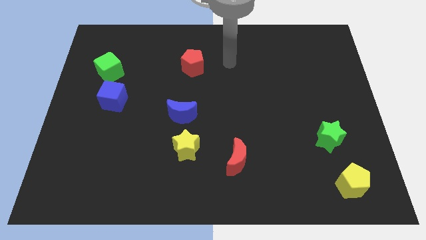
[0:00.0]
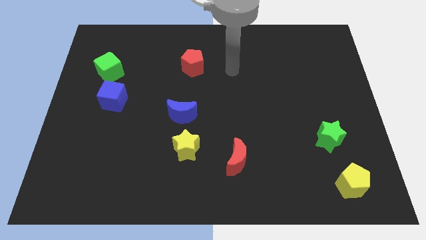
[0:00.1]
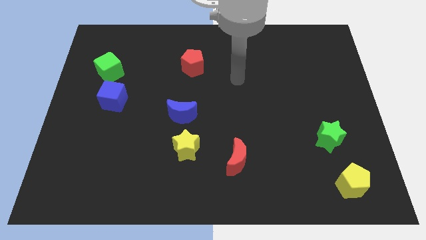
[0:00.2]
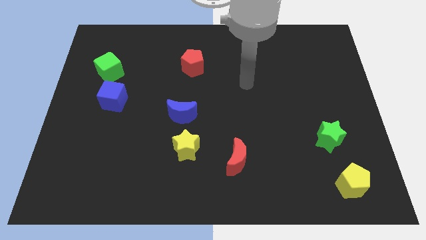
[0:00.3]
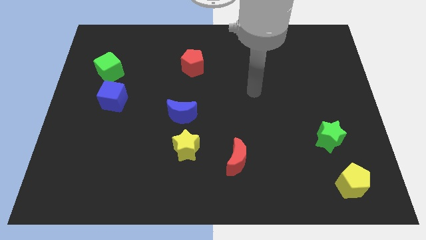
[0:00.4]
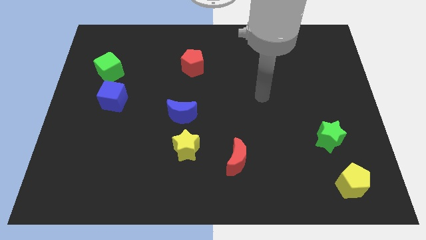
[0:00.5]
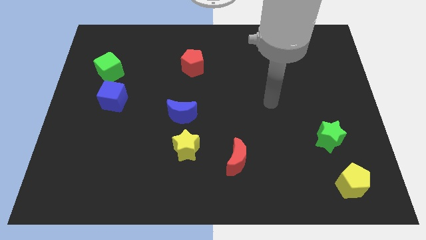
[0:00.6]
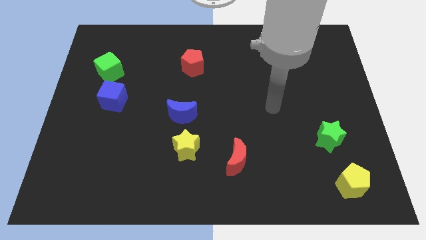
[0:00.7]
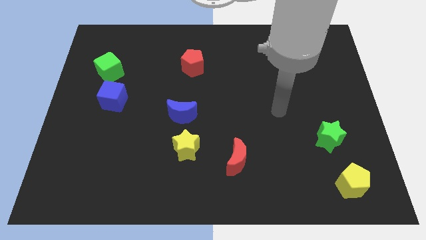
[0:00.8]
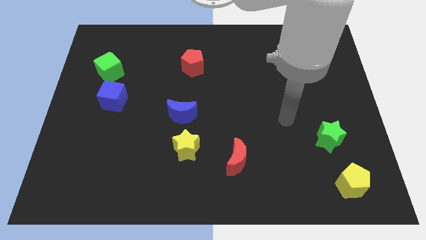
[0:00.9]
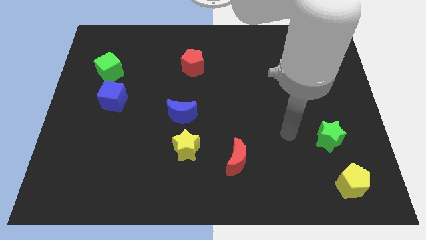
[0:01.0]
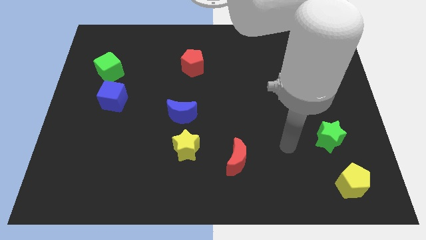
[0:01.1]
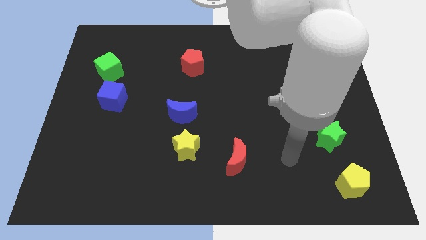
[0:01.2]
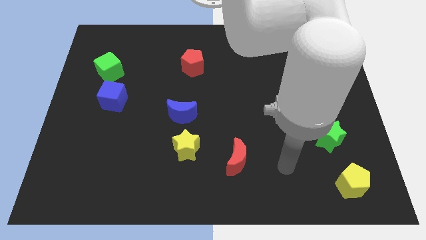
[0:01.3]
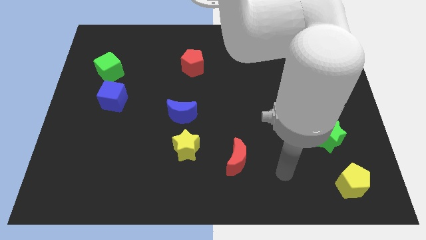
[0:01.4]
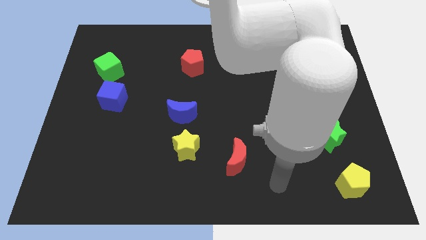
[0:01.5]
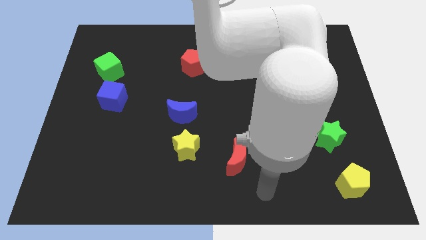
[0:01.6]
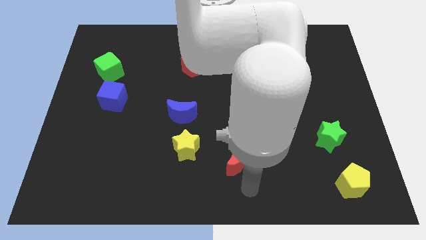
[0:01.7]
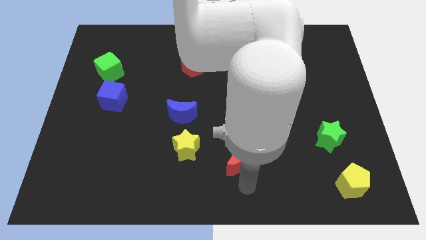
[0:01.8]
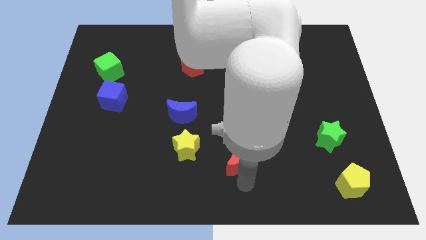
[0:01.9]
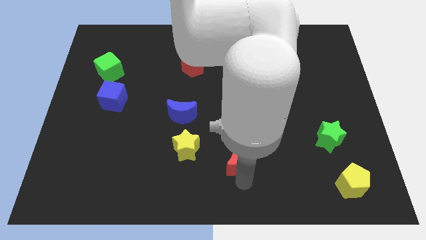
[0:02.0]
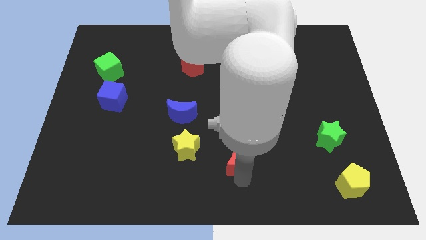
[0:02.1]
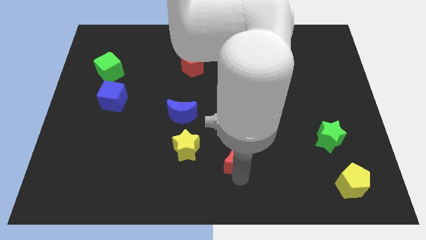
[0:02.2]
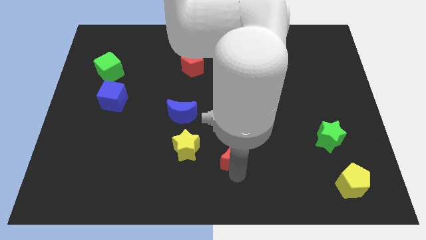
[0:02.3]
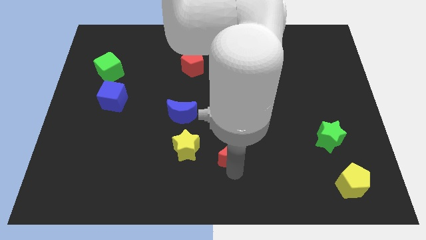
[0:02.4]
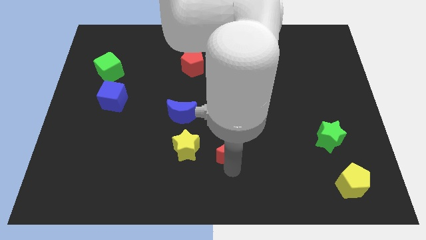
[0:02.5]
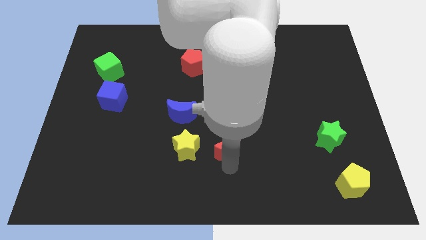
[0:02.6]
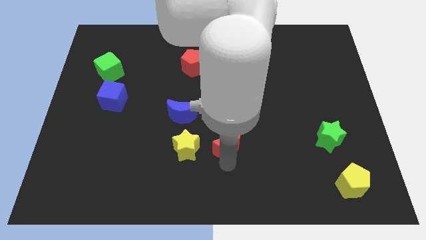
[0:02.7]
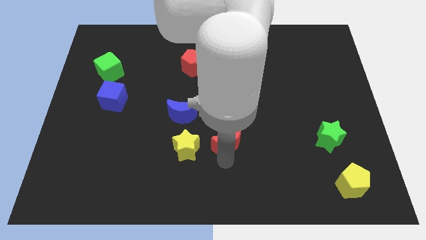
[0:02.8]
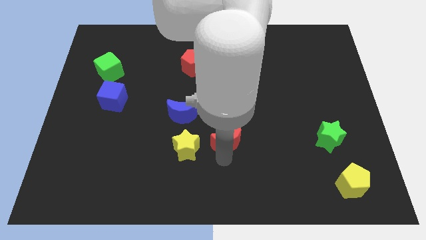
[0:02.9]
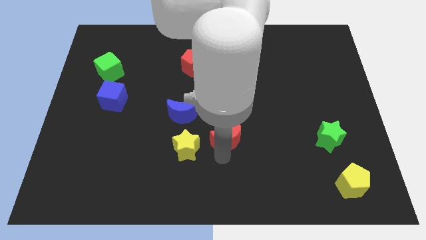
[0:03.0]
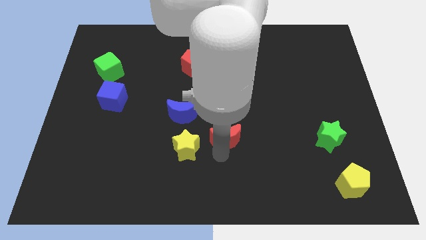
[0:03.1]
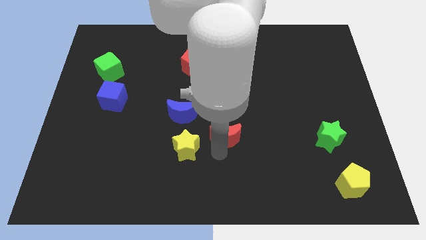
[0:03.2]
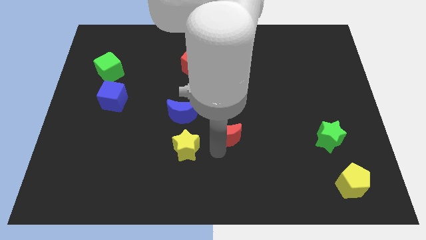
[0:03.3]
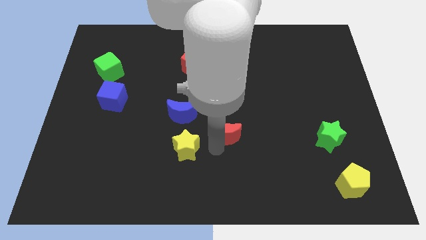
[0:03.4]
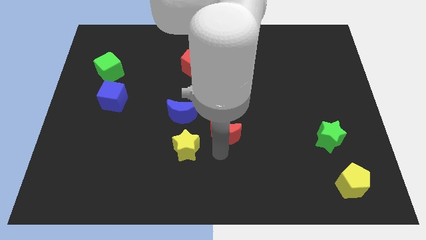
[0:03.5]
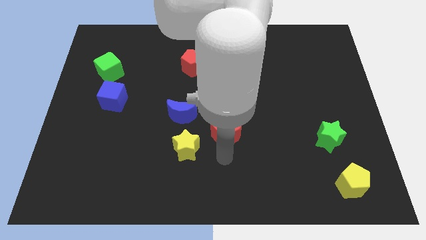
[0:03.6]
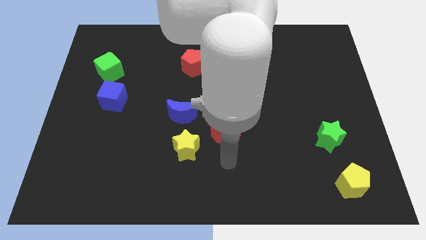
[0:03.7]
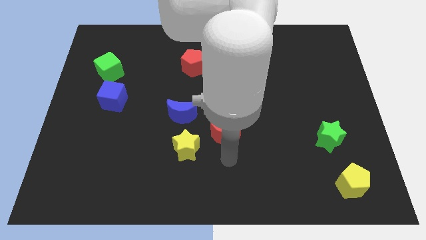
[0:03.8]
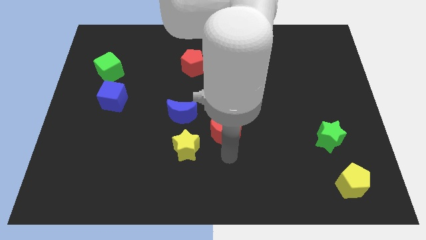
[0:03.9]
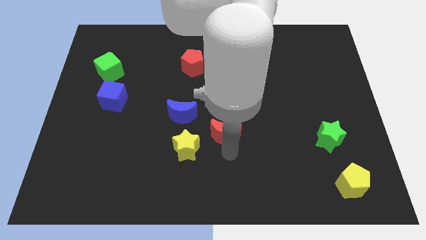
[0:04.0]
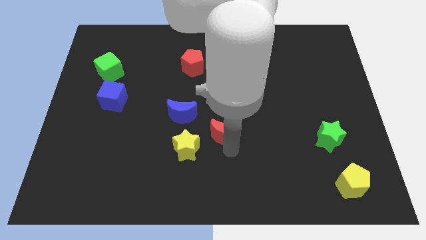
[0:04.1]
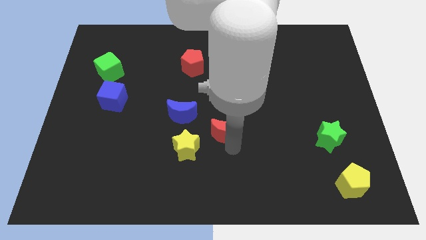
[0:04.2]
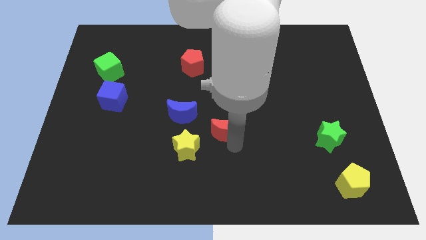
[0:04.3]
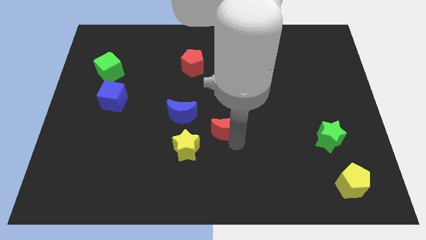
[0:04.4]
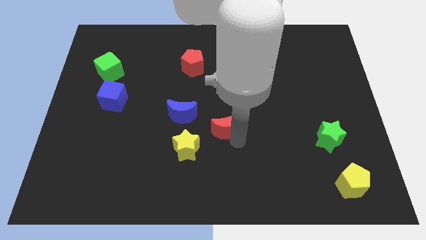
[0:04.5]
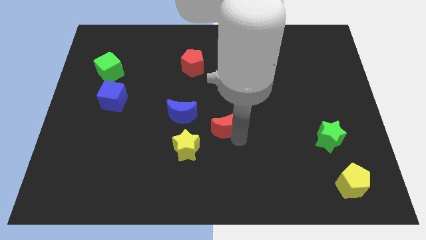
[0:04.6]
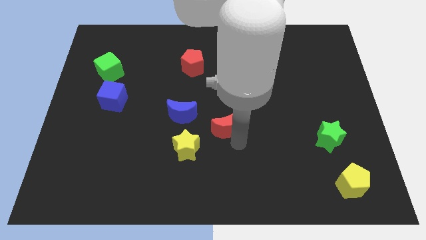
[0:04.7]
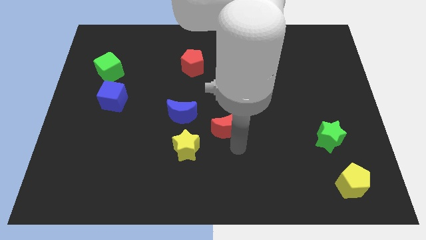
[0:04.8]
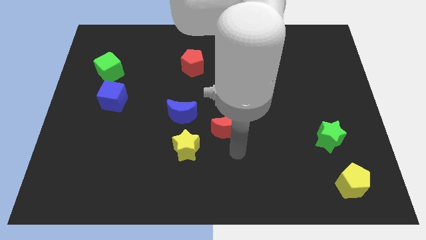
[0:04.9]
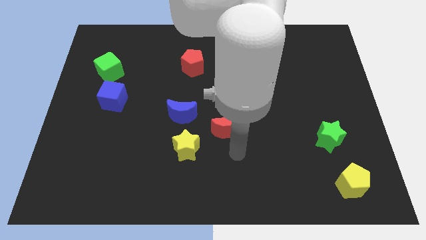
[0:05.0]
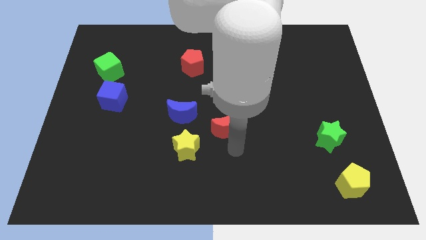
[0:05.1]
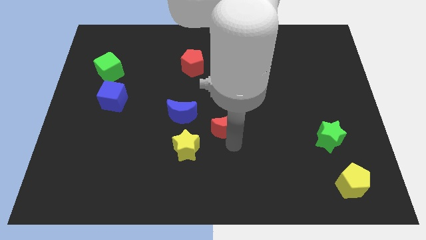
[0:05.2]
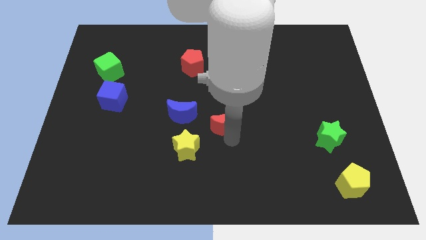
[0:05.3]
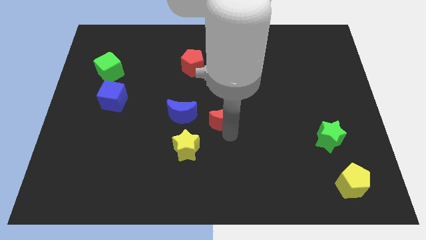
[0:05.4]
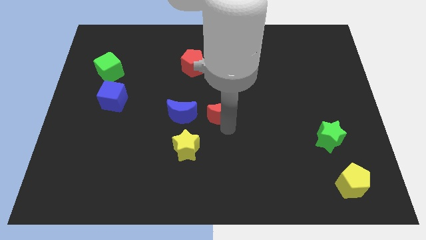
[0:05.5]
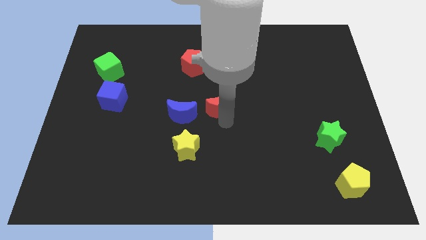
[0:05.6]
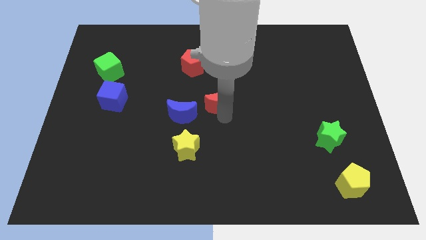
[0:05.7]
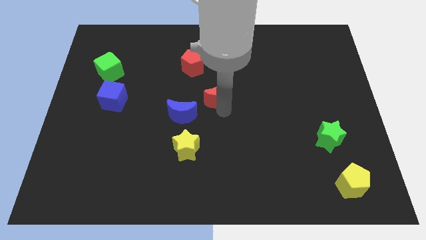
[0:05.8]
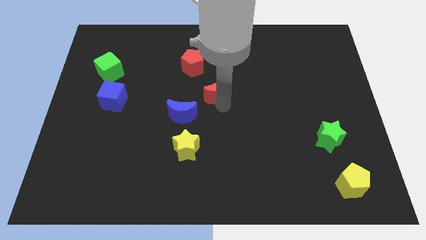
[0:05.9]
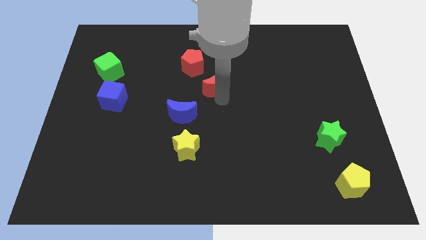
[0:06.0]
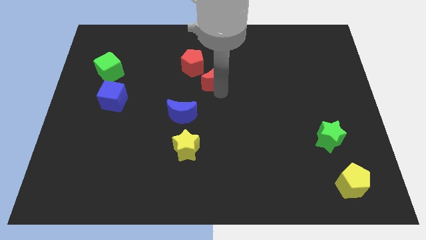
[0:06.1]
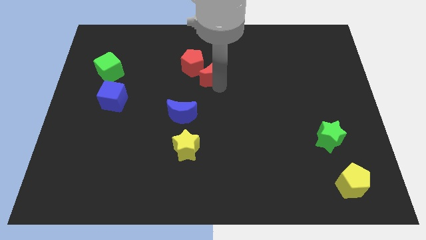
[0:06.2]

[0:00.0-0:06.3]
move the red moon towards the red pentagon

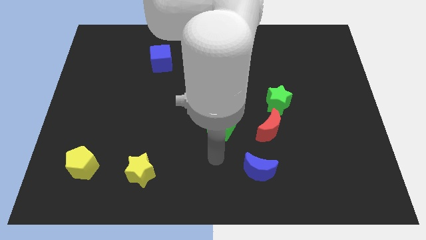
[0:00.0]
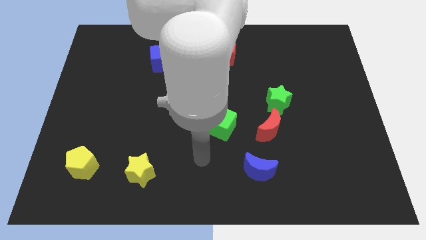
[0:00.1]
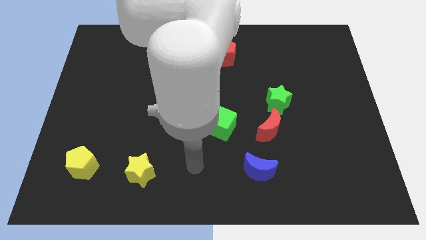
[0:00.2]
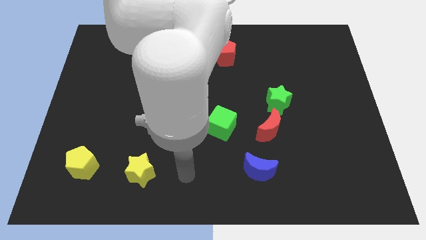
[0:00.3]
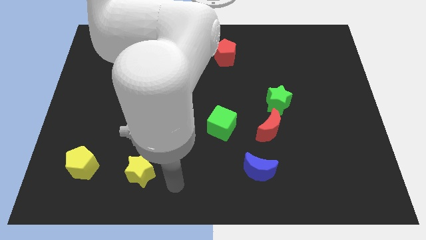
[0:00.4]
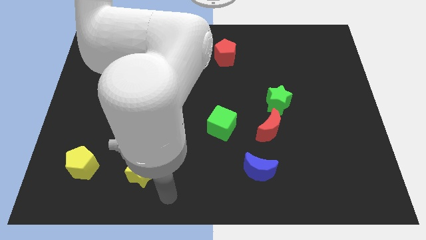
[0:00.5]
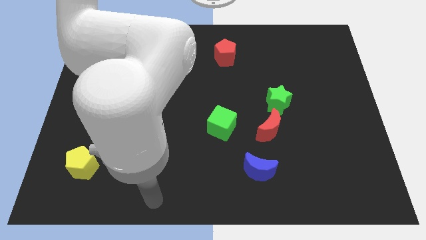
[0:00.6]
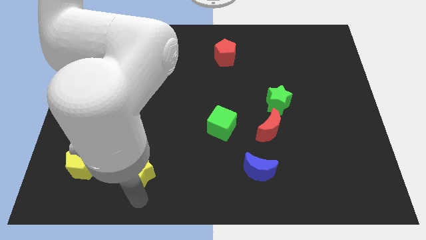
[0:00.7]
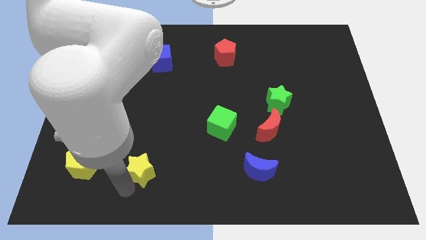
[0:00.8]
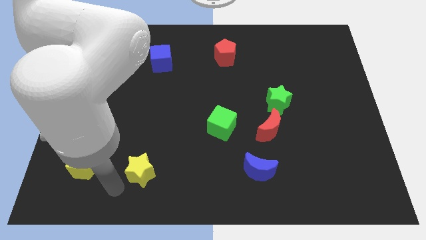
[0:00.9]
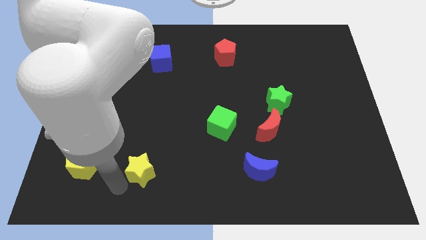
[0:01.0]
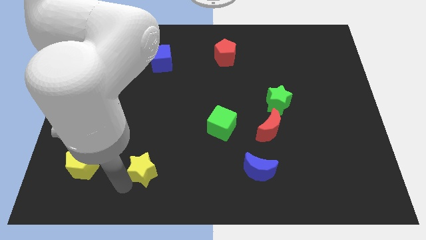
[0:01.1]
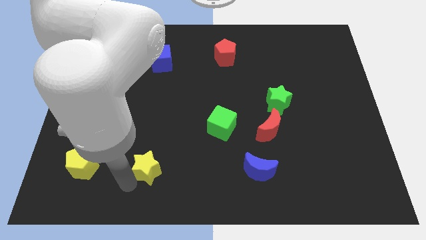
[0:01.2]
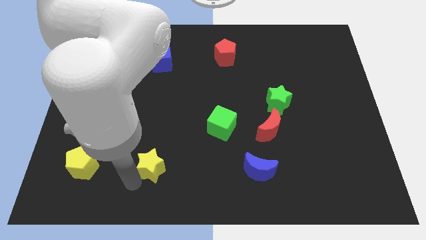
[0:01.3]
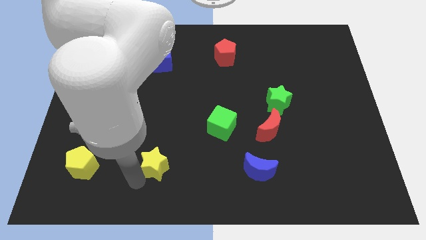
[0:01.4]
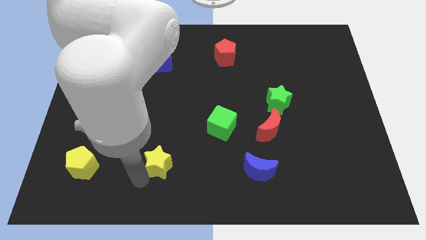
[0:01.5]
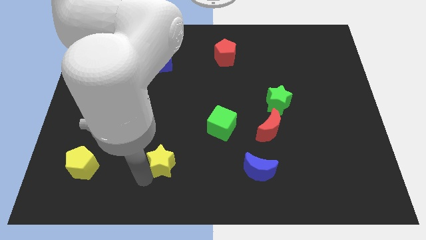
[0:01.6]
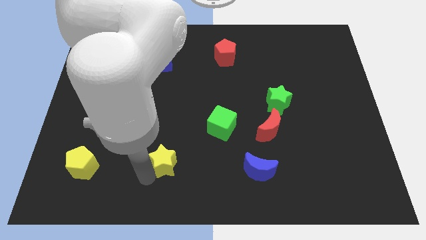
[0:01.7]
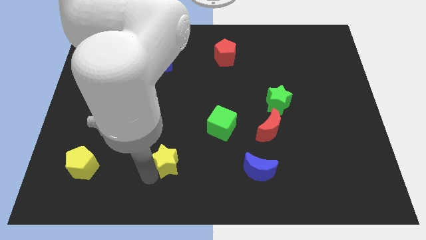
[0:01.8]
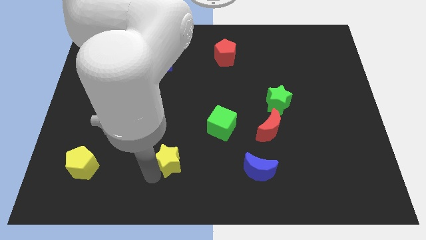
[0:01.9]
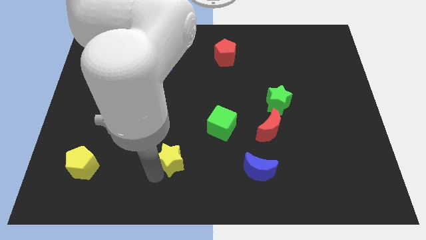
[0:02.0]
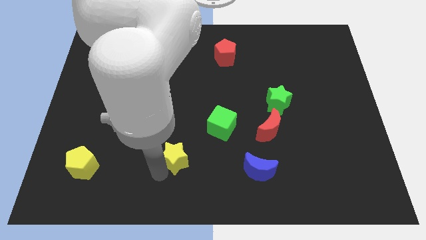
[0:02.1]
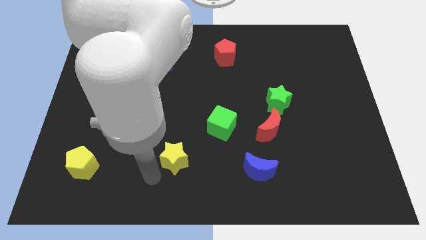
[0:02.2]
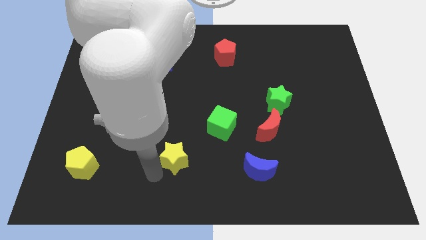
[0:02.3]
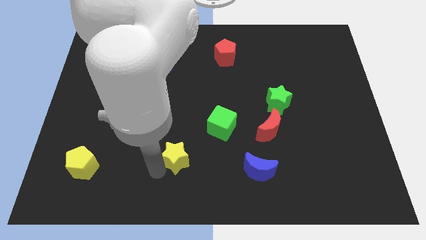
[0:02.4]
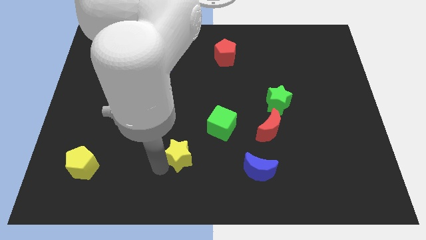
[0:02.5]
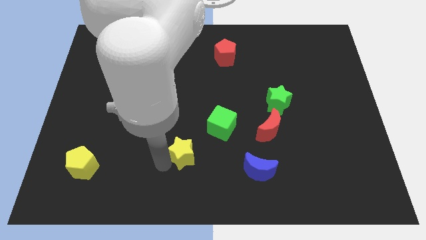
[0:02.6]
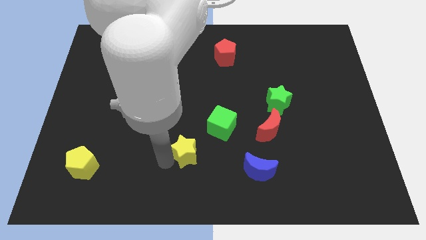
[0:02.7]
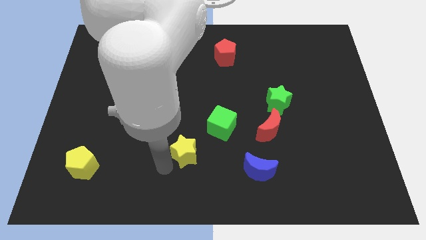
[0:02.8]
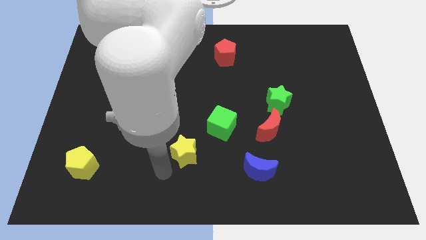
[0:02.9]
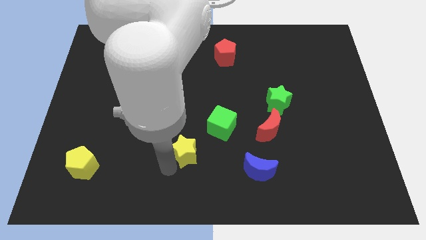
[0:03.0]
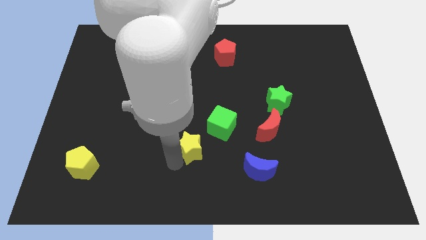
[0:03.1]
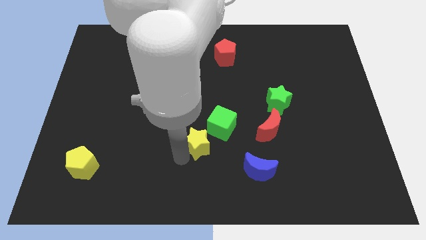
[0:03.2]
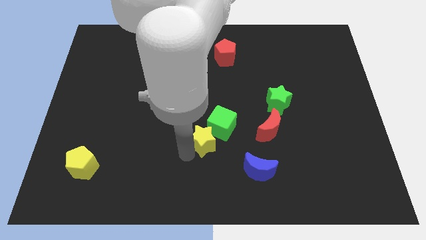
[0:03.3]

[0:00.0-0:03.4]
push the yellow star to the green cube
